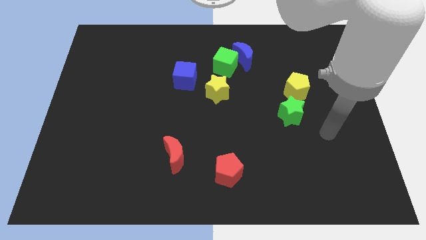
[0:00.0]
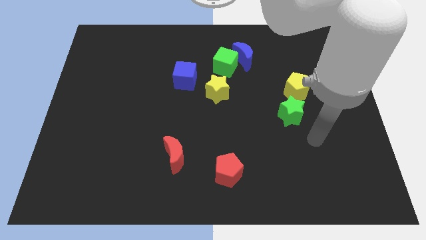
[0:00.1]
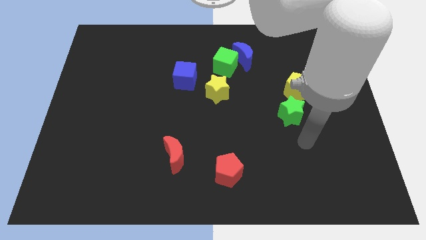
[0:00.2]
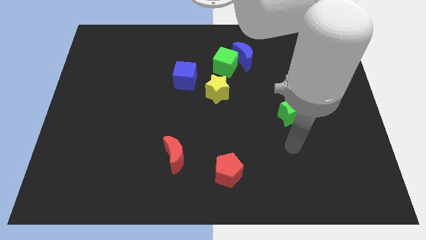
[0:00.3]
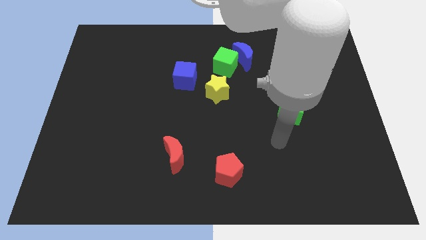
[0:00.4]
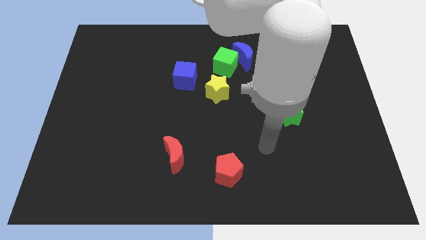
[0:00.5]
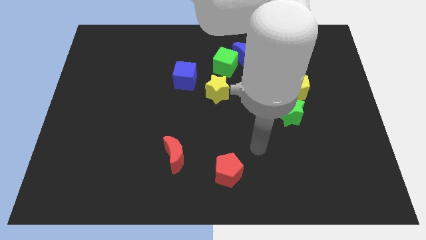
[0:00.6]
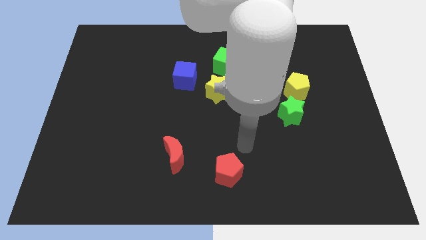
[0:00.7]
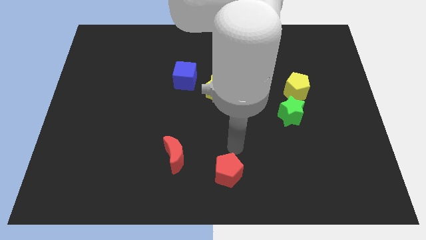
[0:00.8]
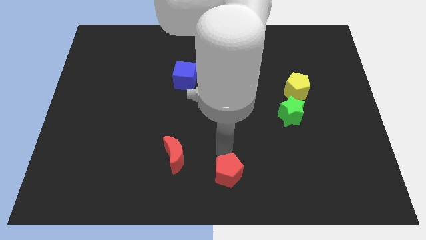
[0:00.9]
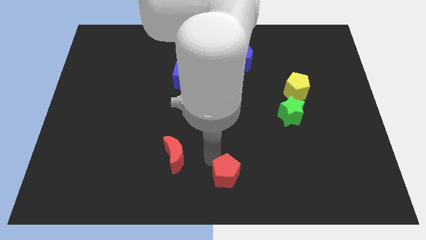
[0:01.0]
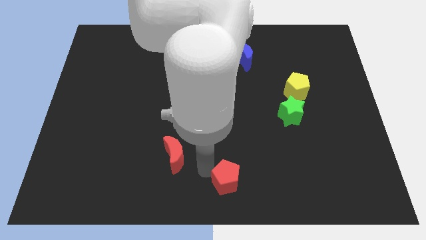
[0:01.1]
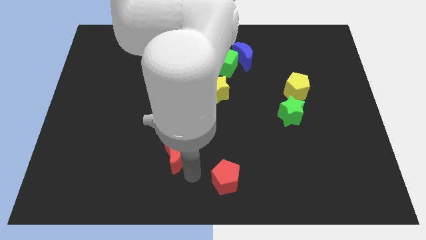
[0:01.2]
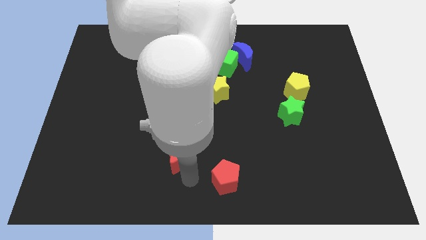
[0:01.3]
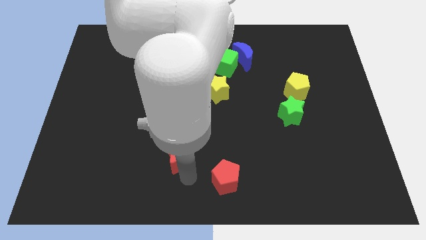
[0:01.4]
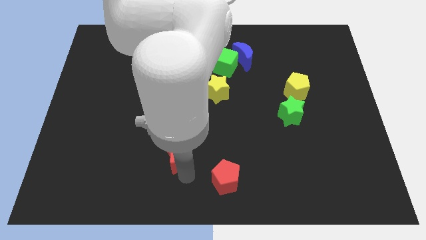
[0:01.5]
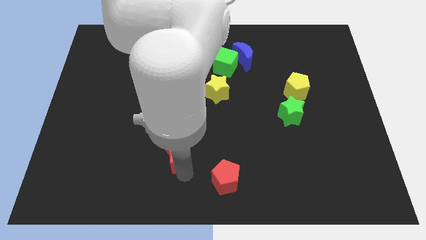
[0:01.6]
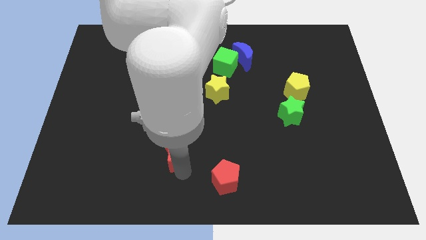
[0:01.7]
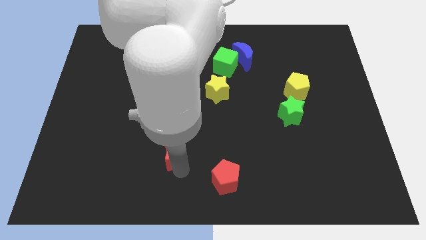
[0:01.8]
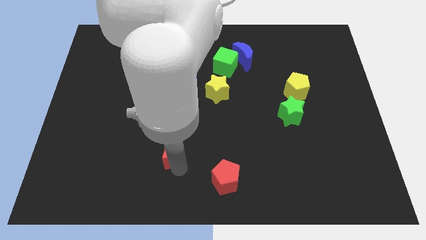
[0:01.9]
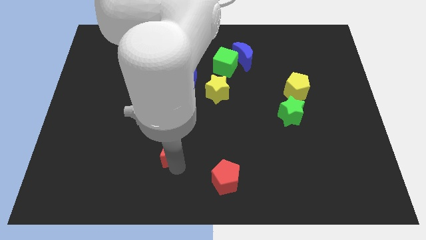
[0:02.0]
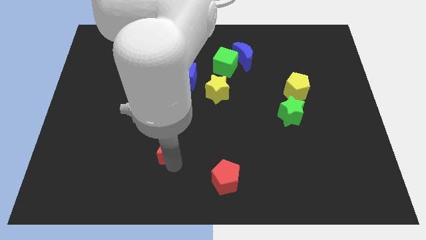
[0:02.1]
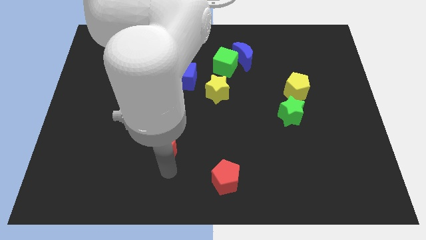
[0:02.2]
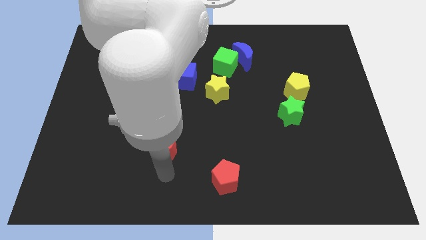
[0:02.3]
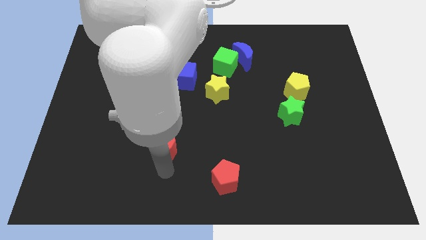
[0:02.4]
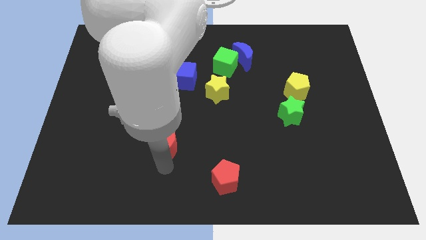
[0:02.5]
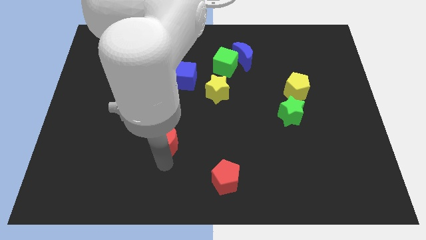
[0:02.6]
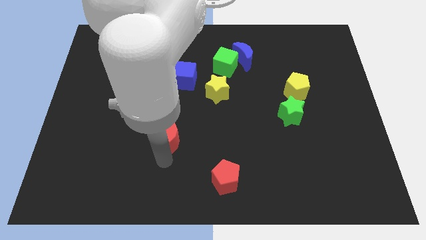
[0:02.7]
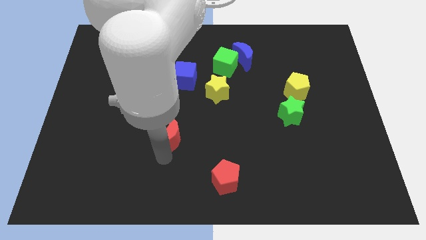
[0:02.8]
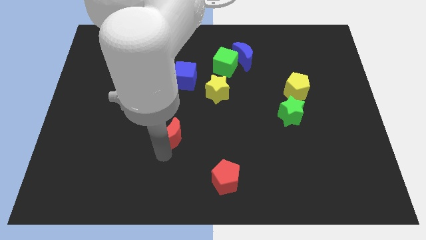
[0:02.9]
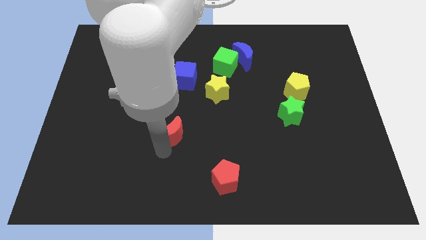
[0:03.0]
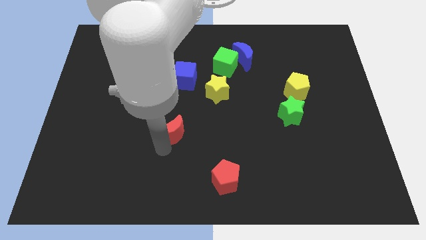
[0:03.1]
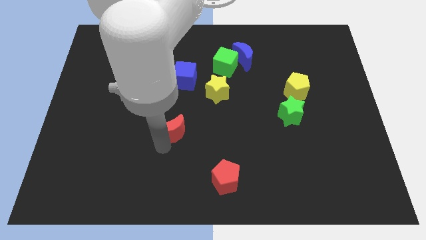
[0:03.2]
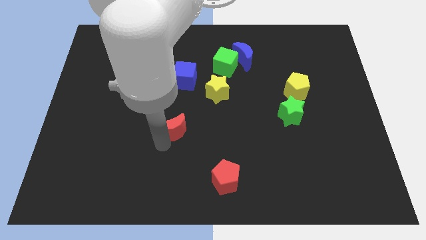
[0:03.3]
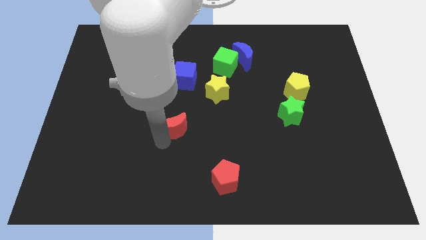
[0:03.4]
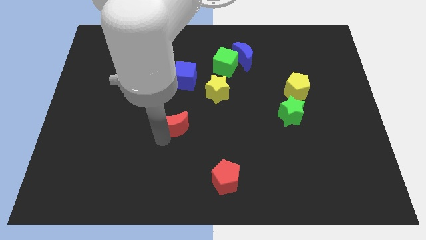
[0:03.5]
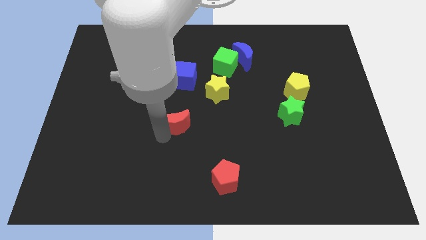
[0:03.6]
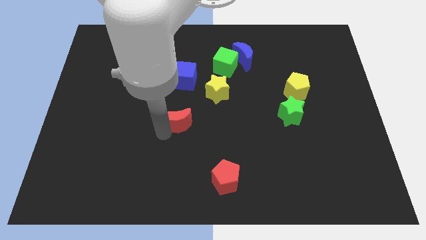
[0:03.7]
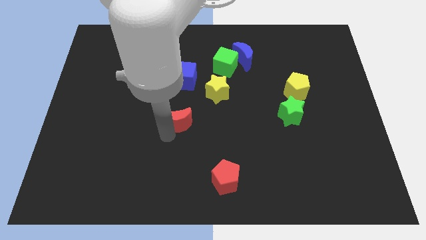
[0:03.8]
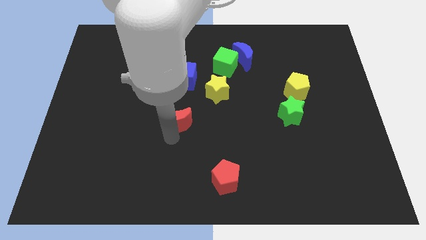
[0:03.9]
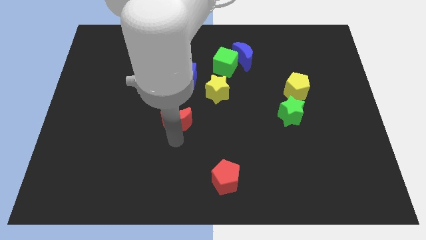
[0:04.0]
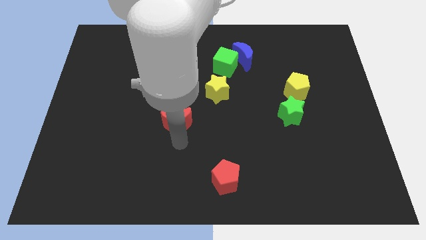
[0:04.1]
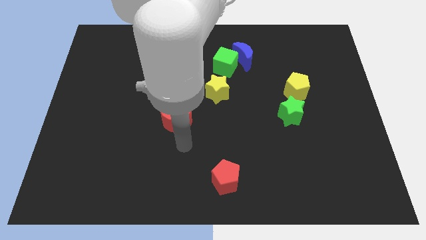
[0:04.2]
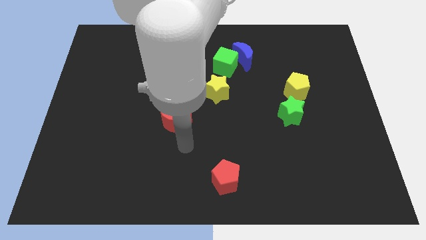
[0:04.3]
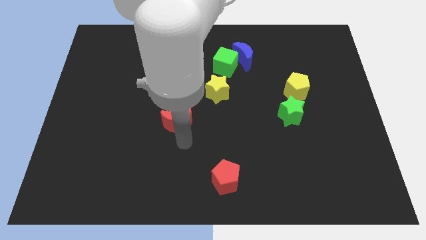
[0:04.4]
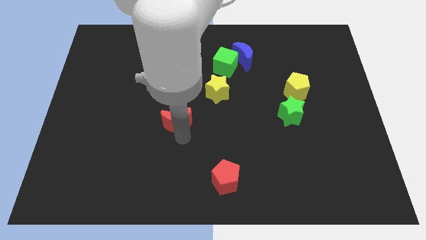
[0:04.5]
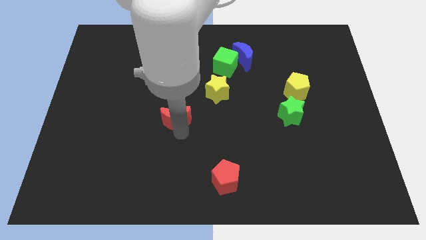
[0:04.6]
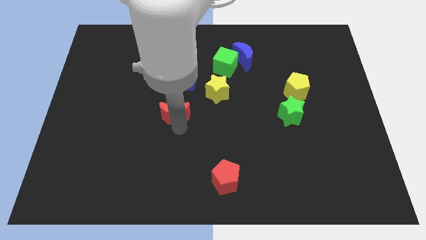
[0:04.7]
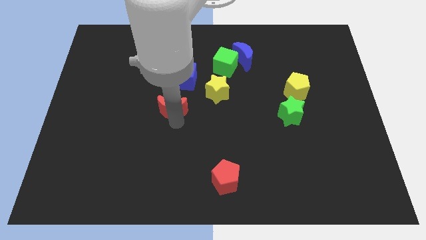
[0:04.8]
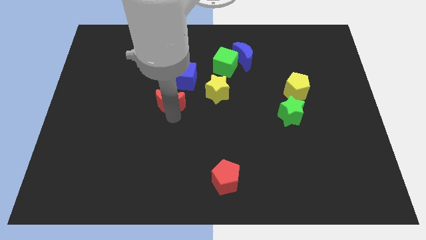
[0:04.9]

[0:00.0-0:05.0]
slide the red moon to the left side of the yellow star

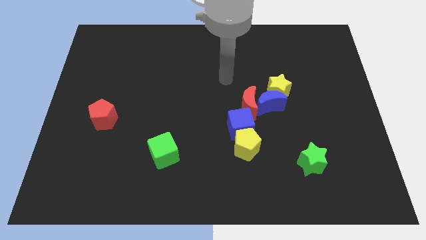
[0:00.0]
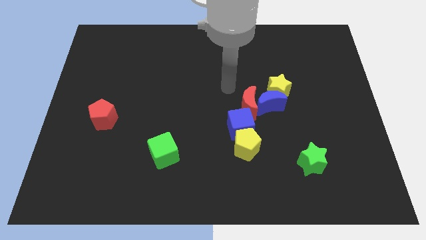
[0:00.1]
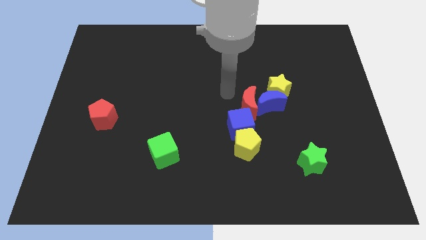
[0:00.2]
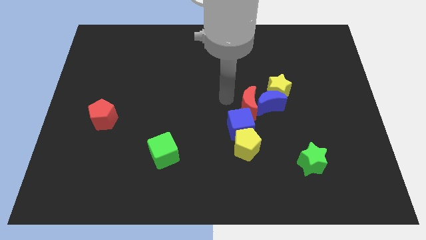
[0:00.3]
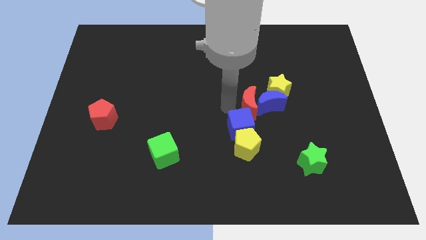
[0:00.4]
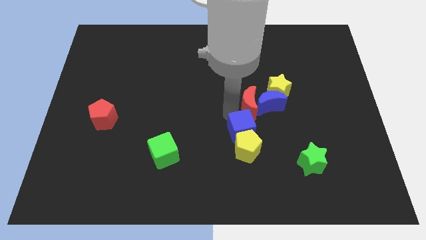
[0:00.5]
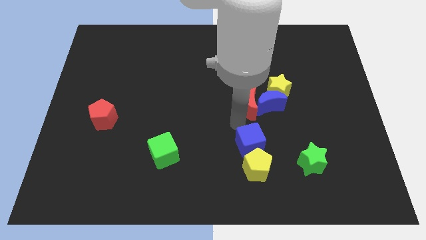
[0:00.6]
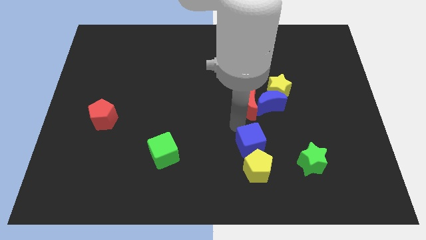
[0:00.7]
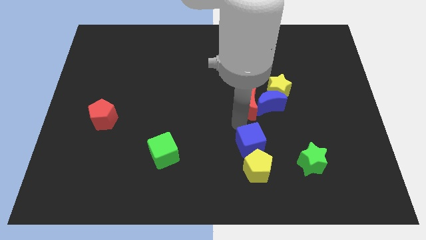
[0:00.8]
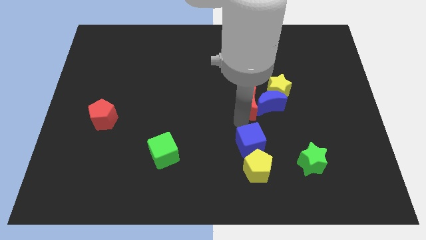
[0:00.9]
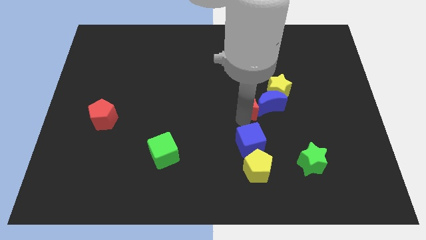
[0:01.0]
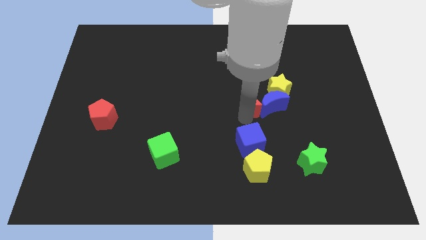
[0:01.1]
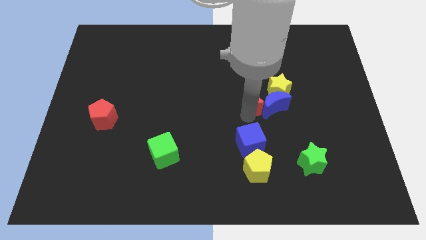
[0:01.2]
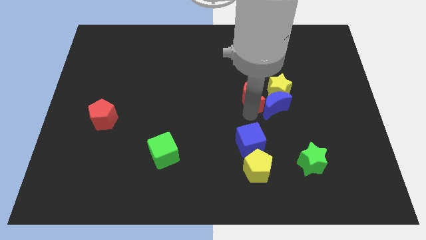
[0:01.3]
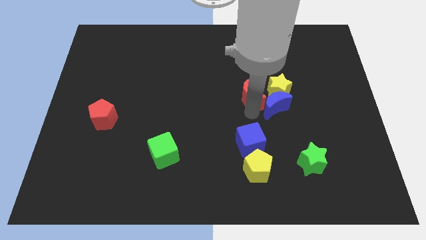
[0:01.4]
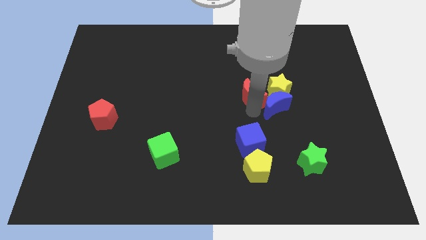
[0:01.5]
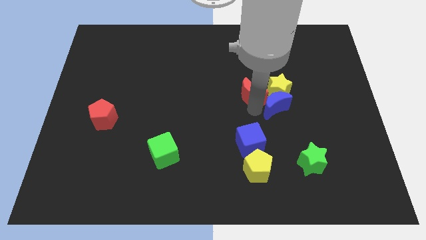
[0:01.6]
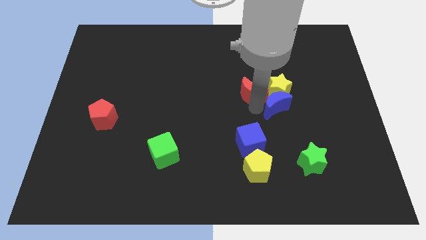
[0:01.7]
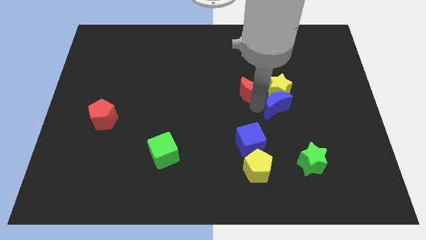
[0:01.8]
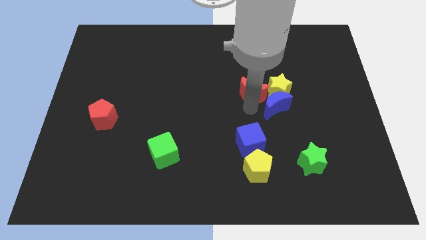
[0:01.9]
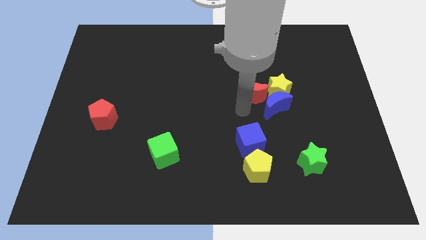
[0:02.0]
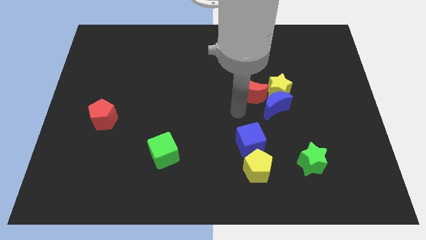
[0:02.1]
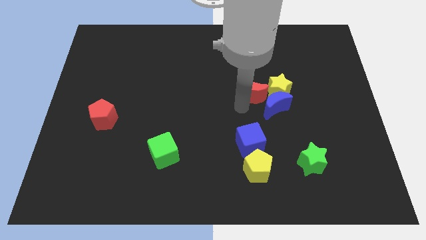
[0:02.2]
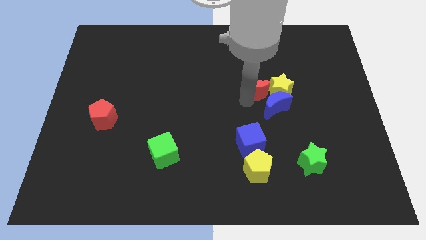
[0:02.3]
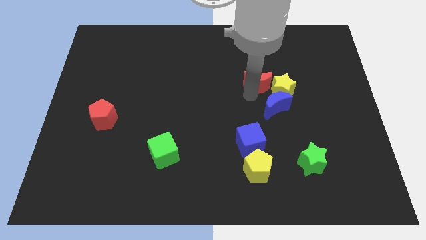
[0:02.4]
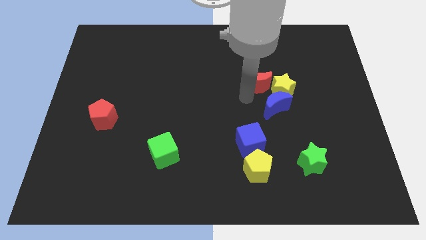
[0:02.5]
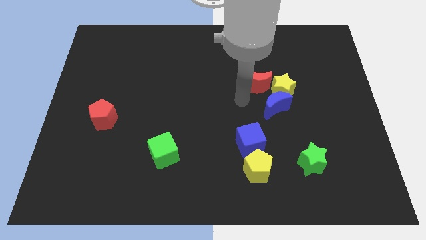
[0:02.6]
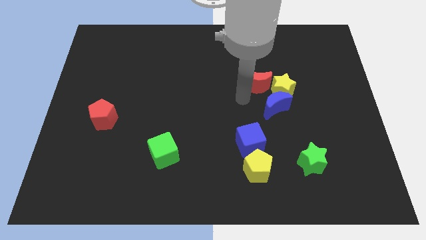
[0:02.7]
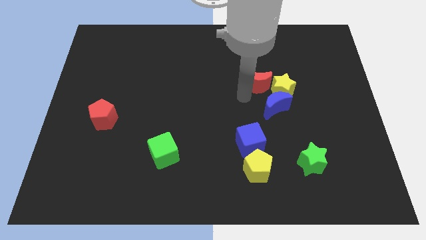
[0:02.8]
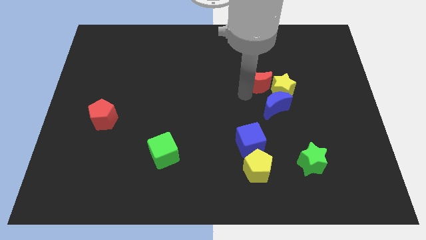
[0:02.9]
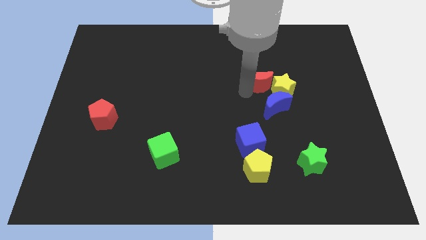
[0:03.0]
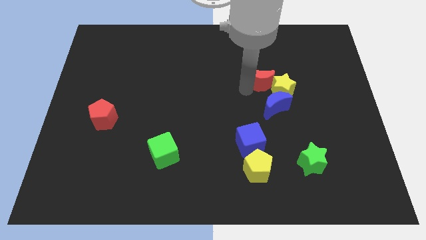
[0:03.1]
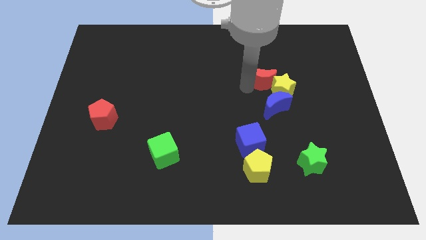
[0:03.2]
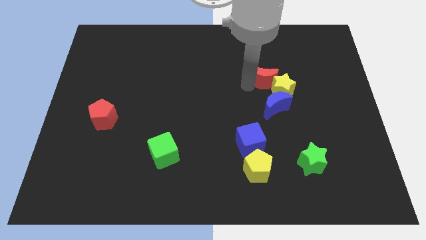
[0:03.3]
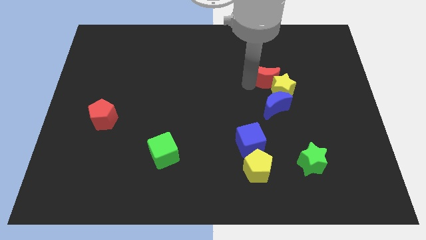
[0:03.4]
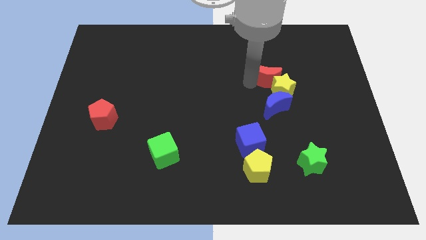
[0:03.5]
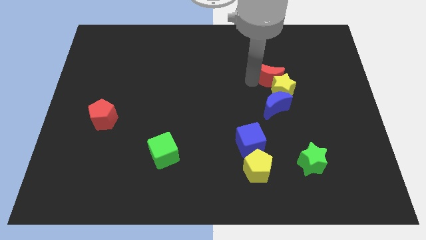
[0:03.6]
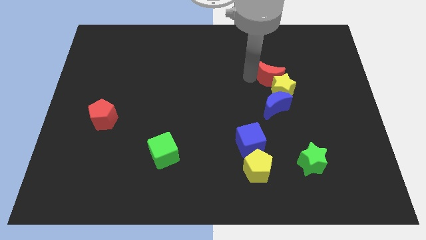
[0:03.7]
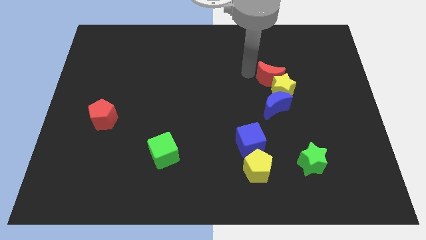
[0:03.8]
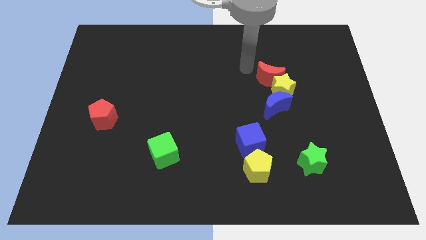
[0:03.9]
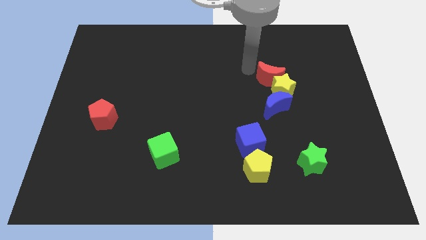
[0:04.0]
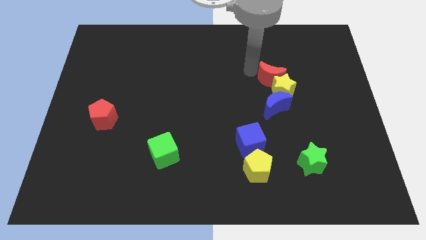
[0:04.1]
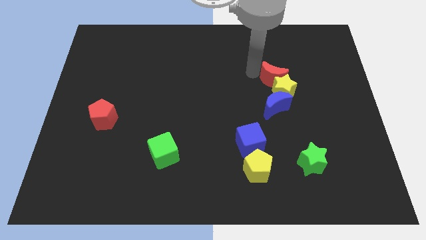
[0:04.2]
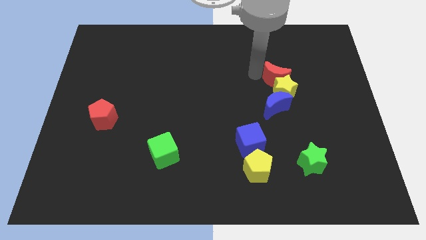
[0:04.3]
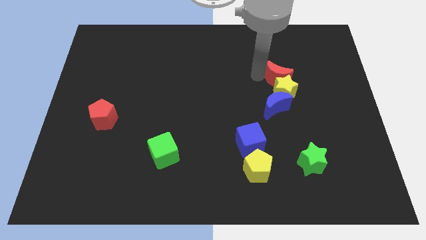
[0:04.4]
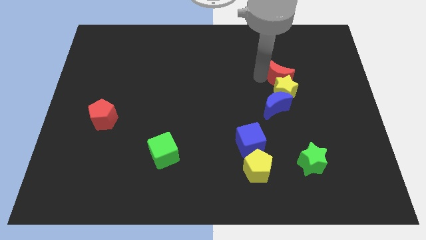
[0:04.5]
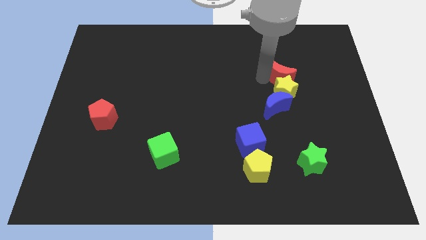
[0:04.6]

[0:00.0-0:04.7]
move the red moon to the top right side of the blue moon
